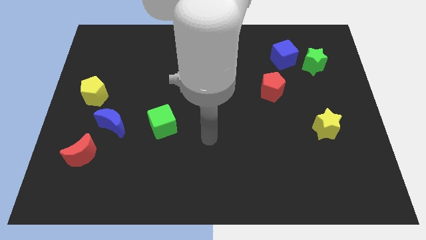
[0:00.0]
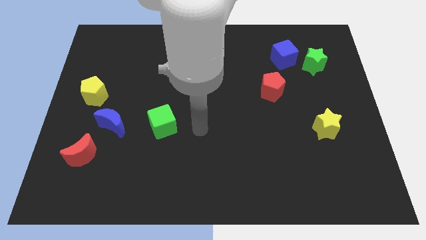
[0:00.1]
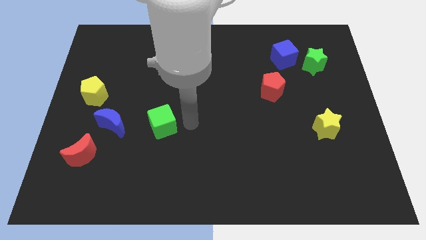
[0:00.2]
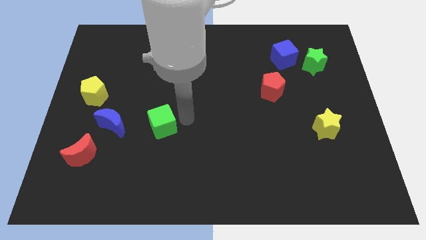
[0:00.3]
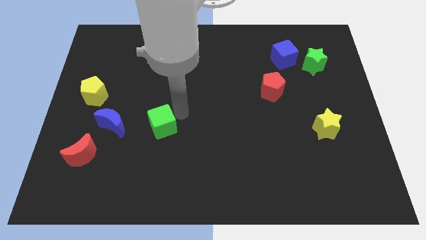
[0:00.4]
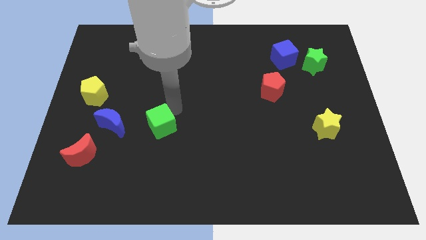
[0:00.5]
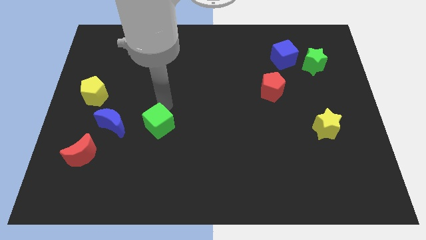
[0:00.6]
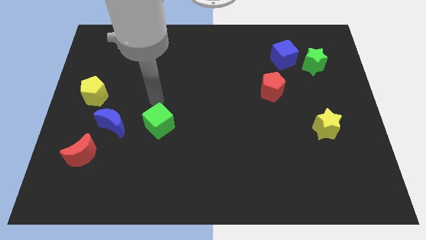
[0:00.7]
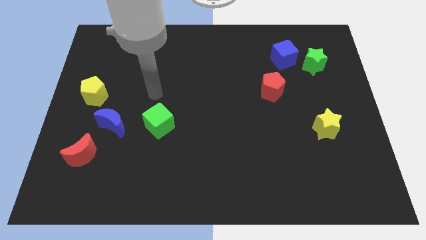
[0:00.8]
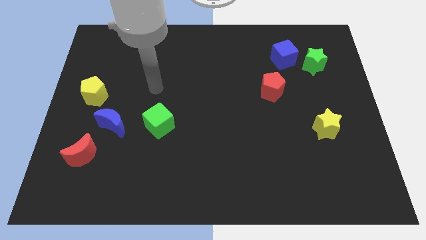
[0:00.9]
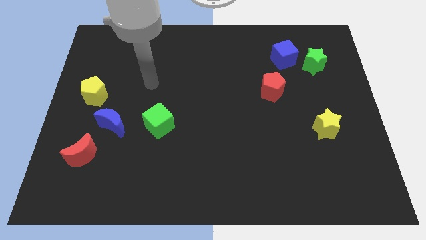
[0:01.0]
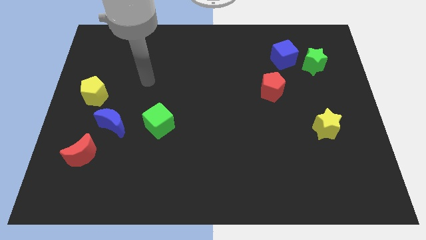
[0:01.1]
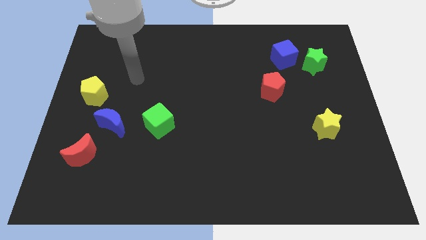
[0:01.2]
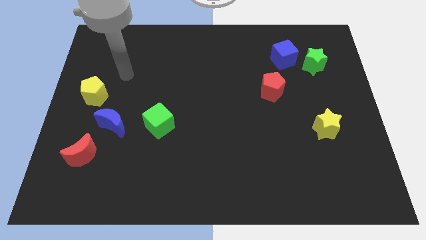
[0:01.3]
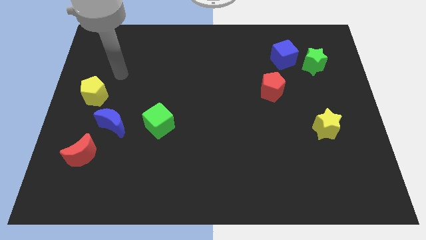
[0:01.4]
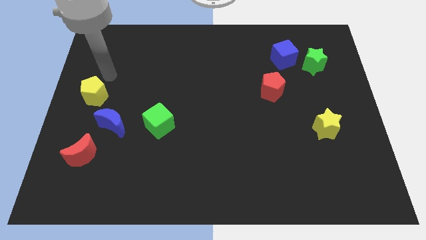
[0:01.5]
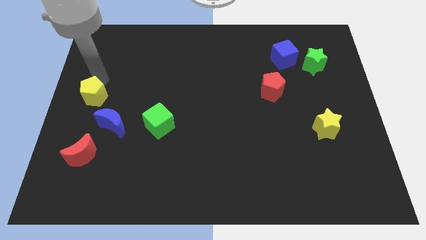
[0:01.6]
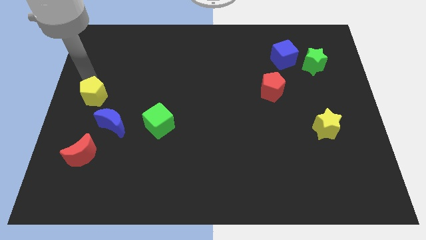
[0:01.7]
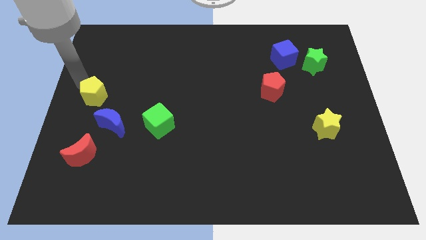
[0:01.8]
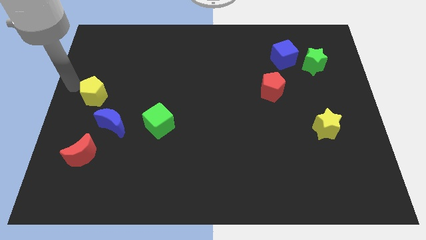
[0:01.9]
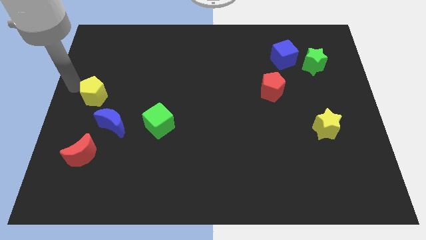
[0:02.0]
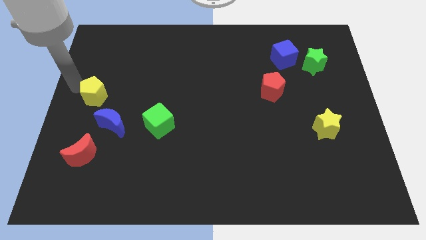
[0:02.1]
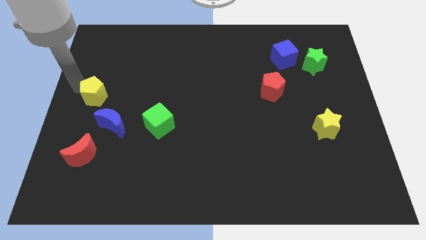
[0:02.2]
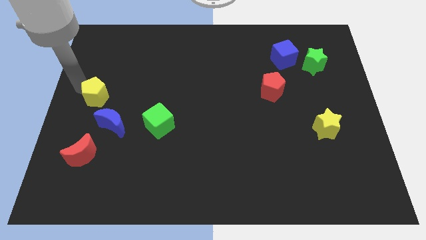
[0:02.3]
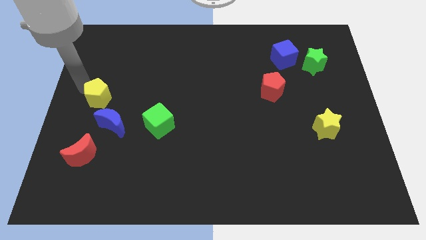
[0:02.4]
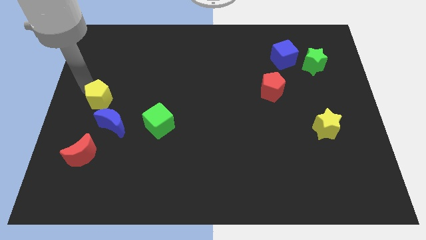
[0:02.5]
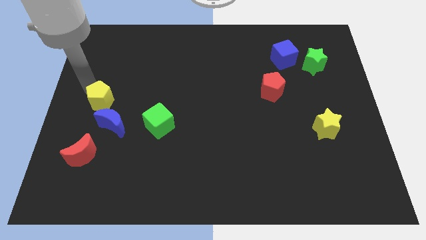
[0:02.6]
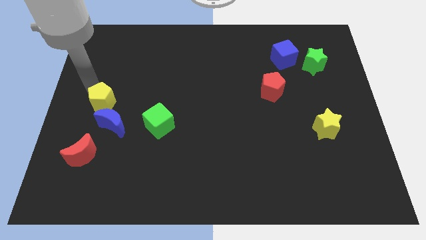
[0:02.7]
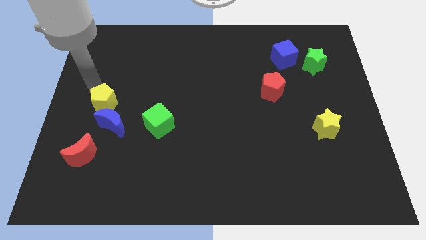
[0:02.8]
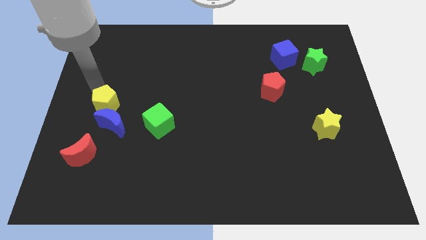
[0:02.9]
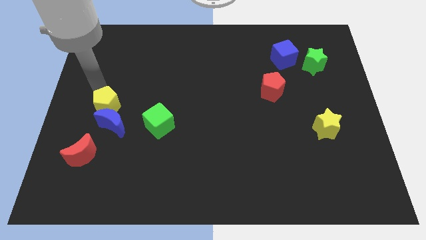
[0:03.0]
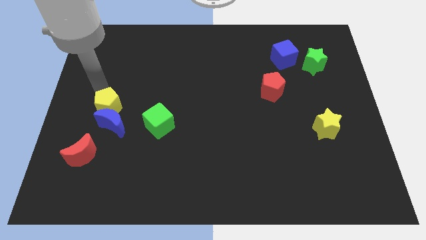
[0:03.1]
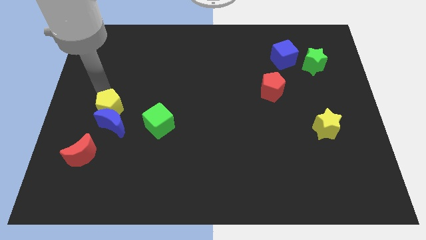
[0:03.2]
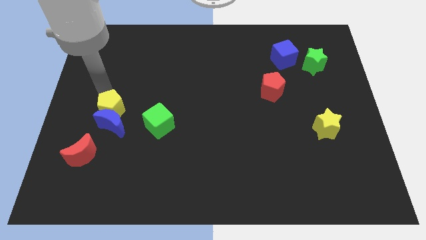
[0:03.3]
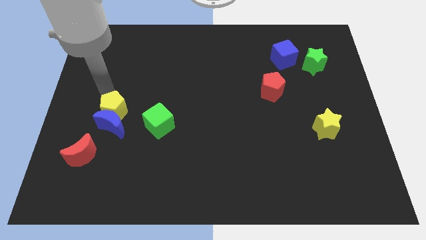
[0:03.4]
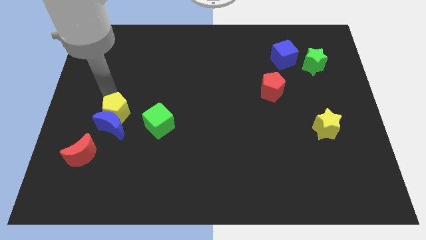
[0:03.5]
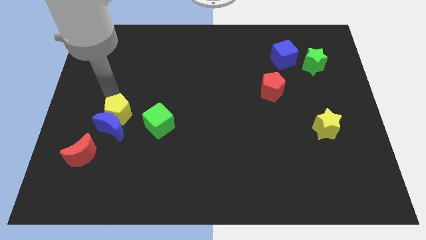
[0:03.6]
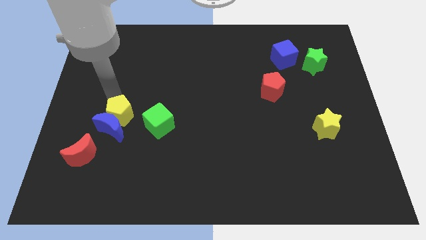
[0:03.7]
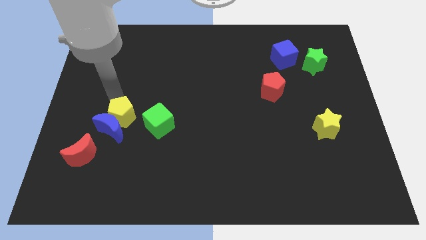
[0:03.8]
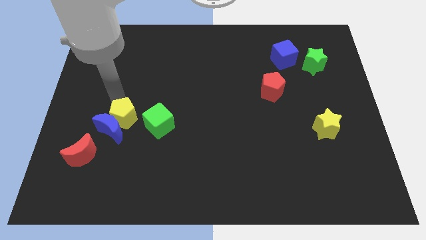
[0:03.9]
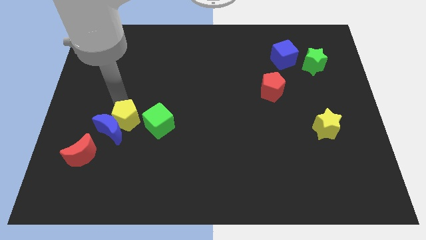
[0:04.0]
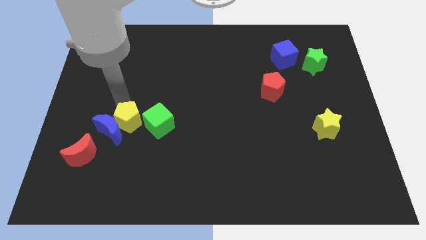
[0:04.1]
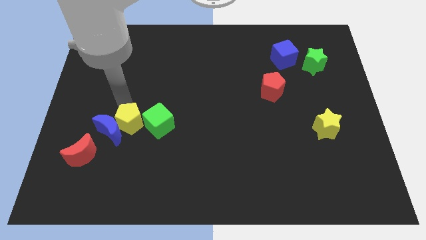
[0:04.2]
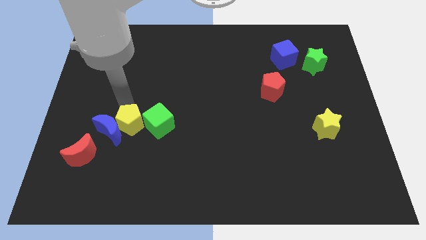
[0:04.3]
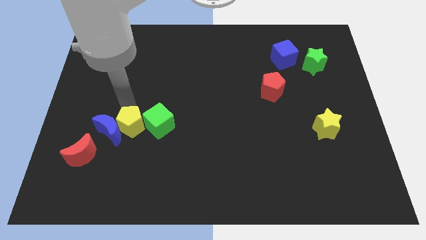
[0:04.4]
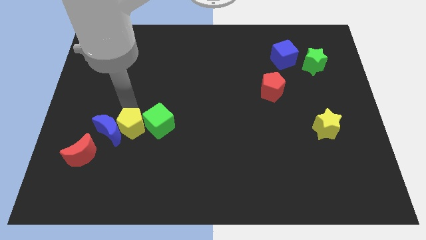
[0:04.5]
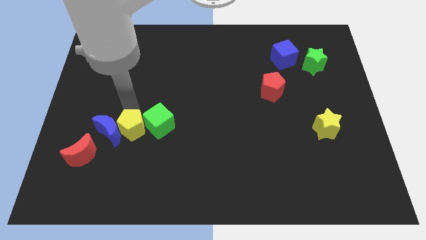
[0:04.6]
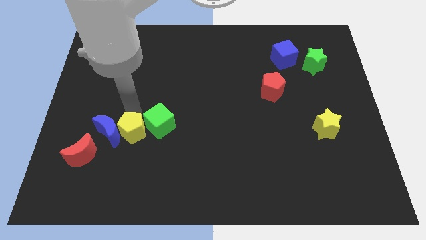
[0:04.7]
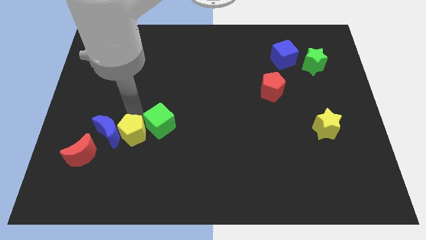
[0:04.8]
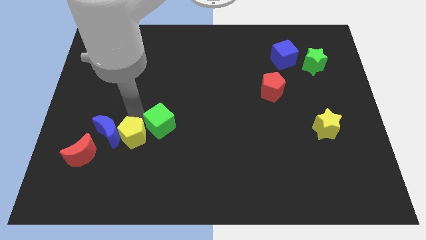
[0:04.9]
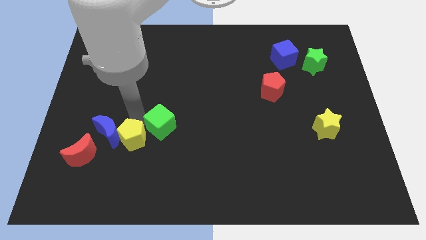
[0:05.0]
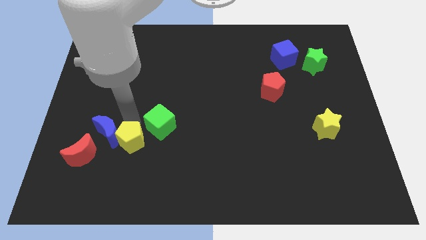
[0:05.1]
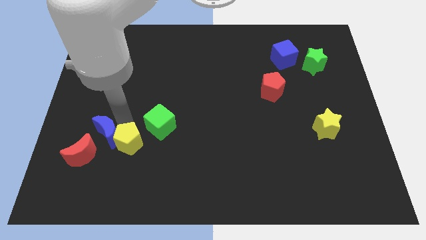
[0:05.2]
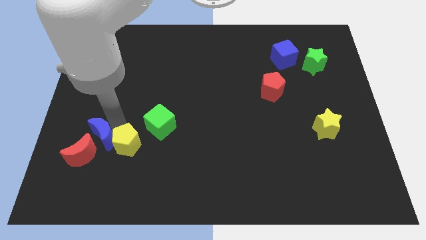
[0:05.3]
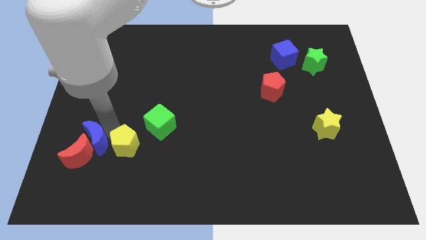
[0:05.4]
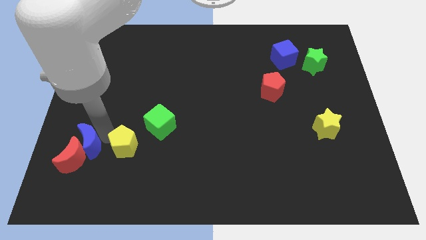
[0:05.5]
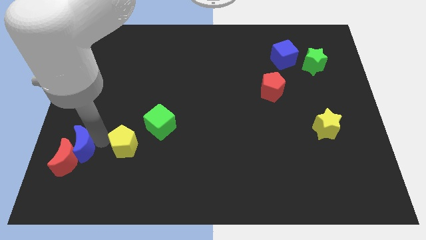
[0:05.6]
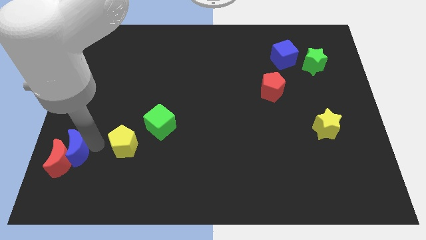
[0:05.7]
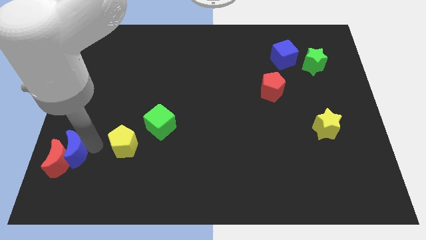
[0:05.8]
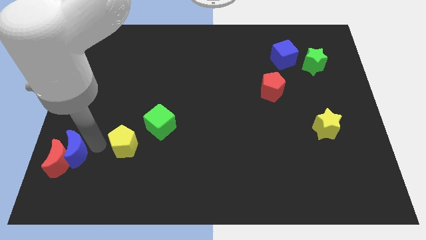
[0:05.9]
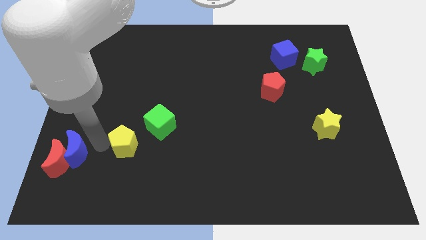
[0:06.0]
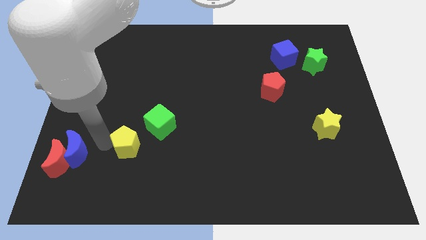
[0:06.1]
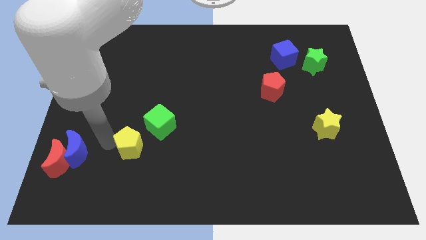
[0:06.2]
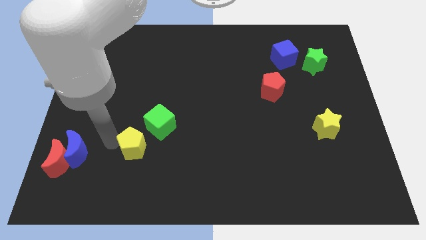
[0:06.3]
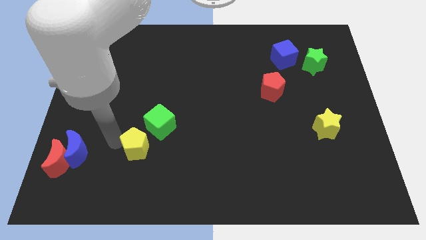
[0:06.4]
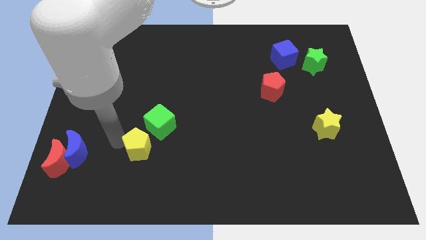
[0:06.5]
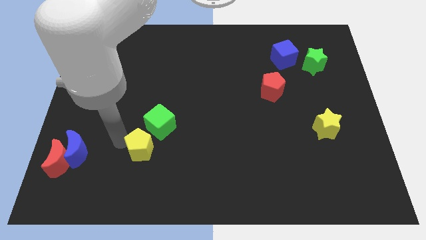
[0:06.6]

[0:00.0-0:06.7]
push the yellow pentagon downwards and to the right diagonally

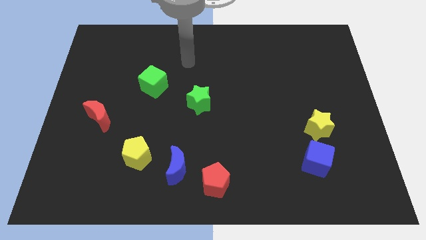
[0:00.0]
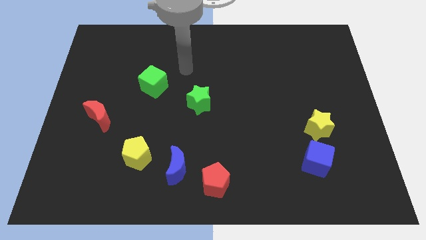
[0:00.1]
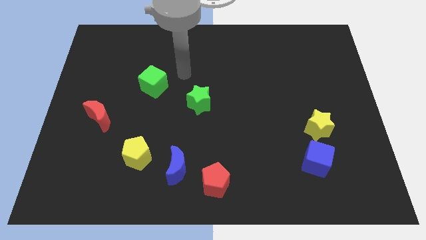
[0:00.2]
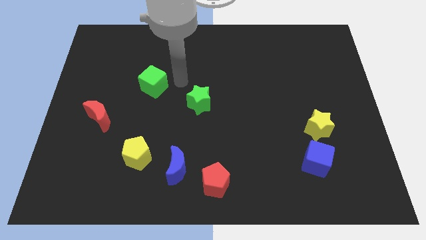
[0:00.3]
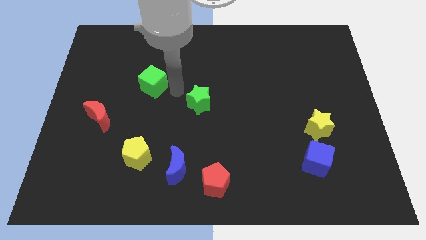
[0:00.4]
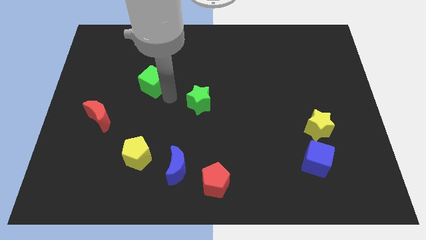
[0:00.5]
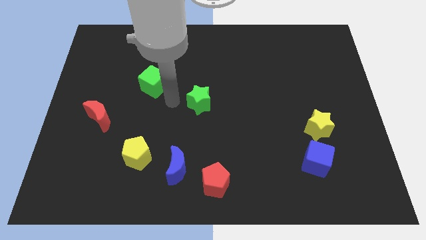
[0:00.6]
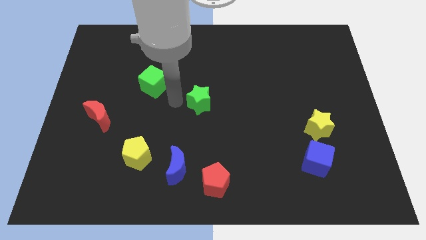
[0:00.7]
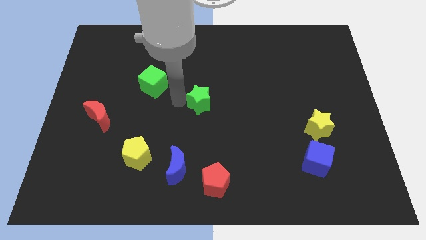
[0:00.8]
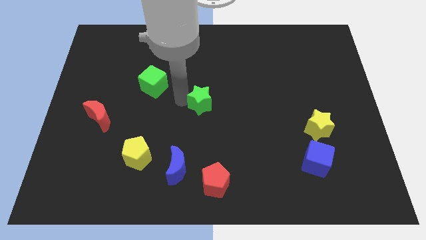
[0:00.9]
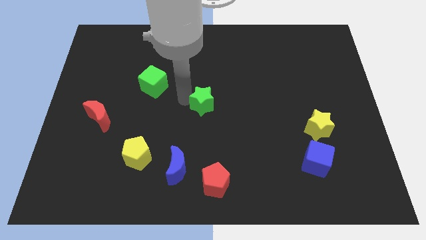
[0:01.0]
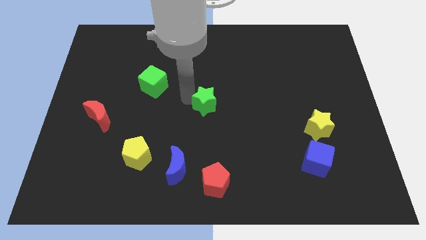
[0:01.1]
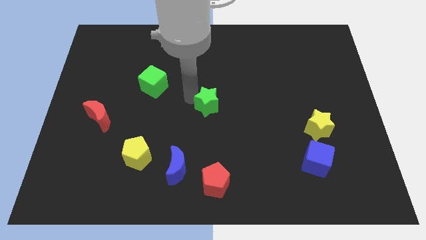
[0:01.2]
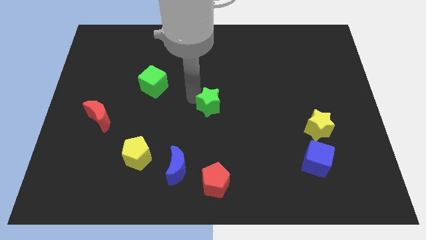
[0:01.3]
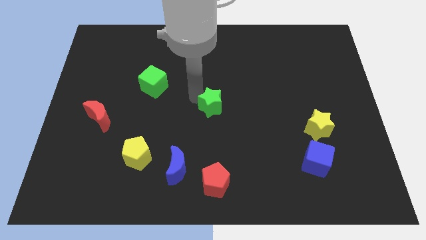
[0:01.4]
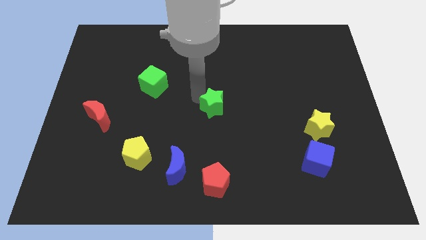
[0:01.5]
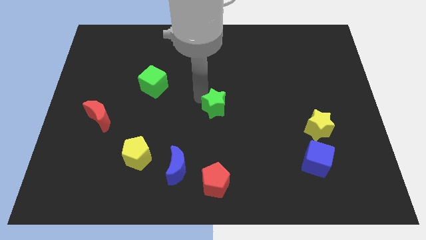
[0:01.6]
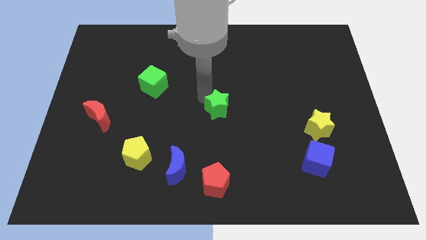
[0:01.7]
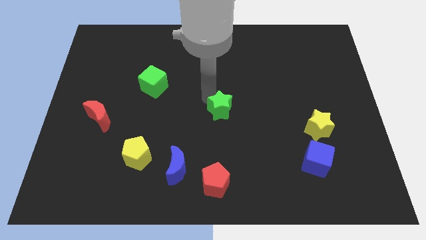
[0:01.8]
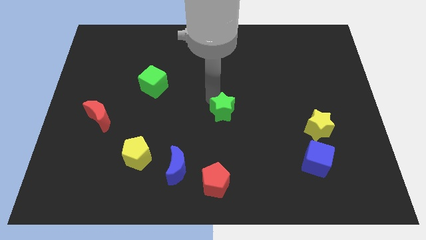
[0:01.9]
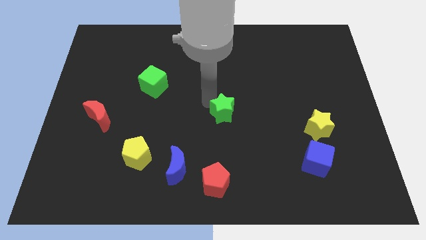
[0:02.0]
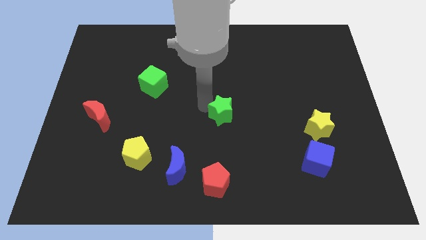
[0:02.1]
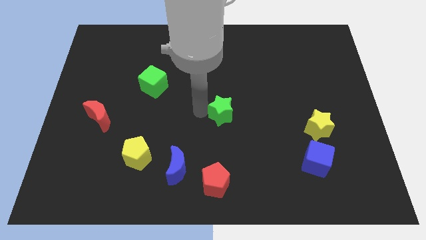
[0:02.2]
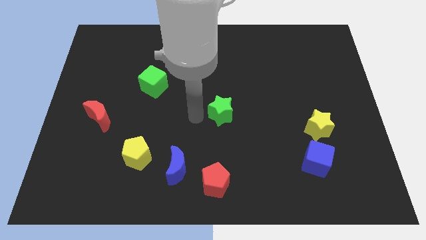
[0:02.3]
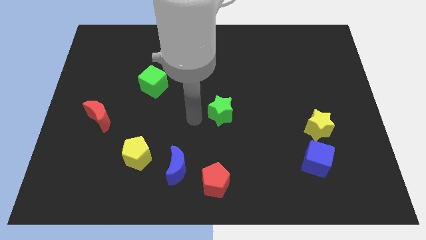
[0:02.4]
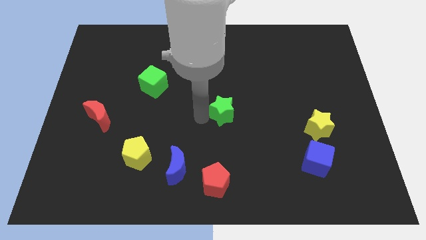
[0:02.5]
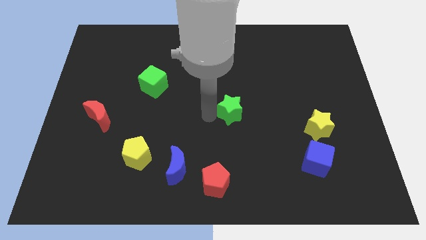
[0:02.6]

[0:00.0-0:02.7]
move the green star right a bit
